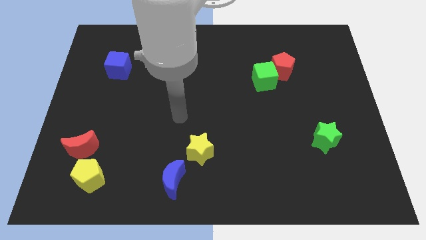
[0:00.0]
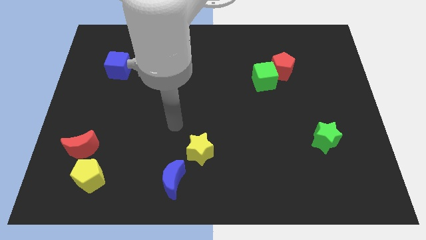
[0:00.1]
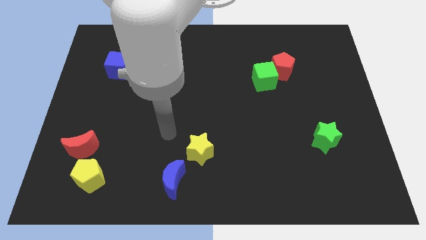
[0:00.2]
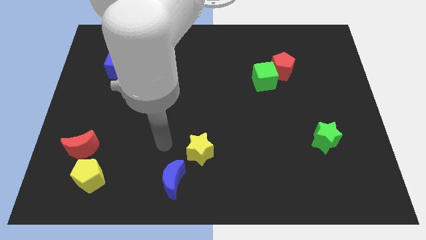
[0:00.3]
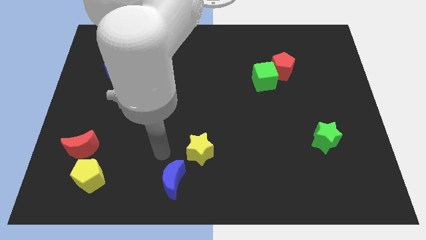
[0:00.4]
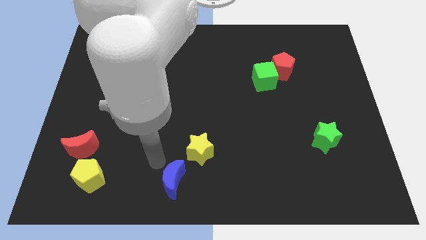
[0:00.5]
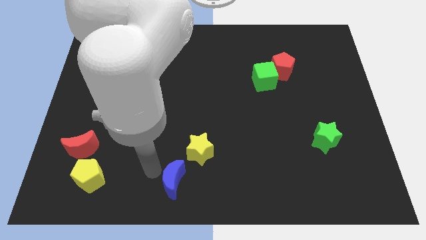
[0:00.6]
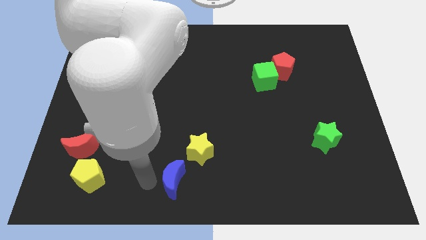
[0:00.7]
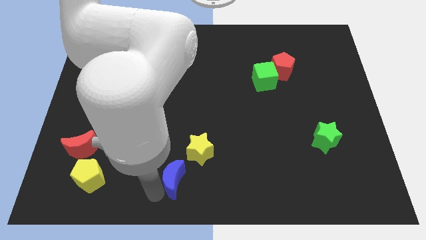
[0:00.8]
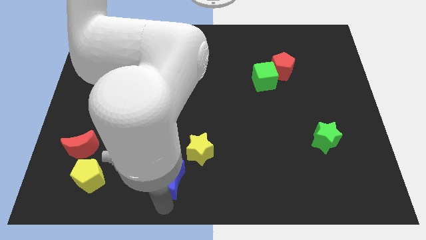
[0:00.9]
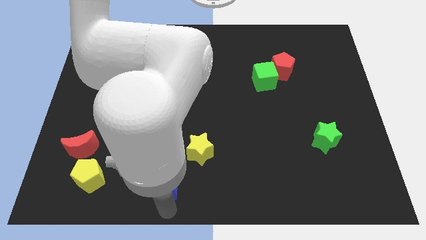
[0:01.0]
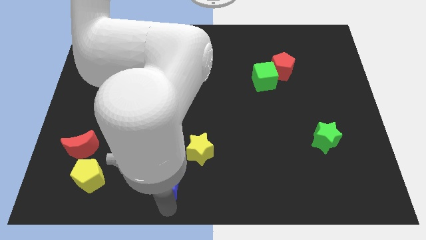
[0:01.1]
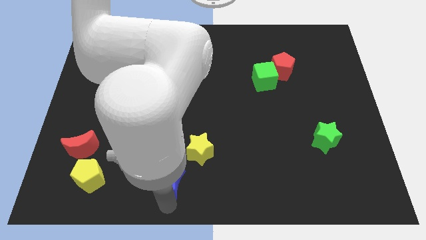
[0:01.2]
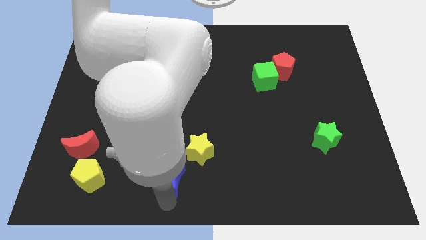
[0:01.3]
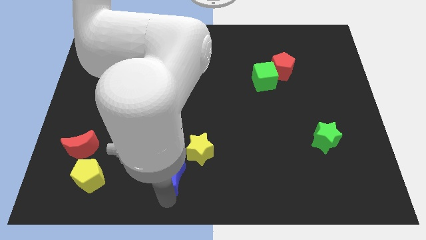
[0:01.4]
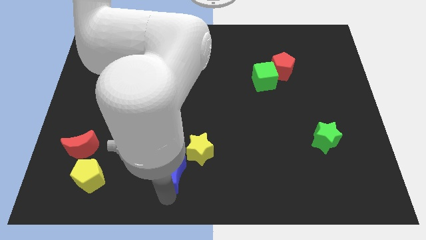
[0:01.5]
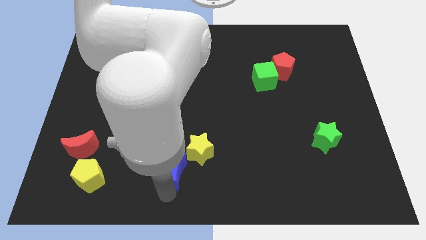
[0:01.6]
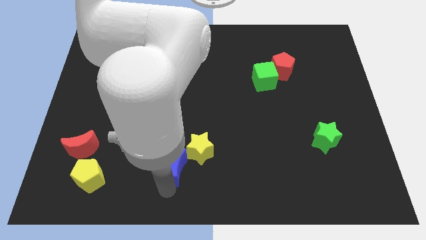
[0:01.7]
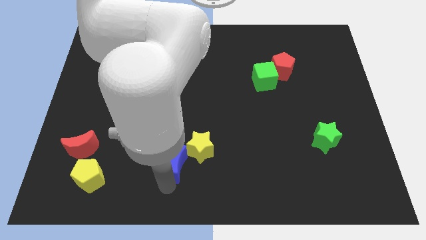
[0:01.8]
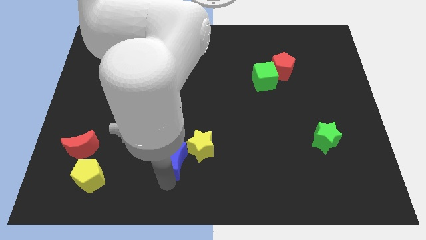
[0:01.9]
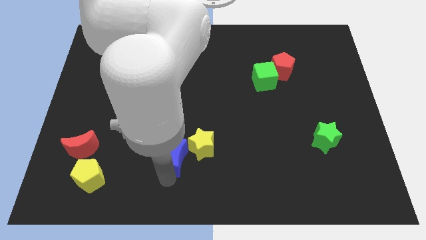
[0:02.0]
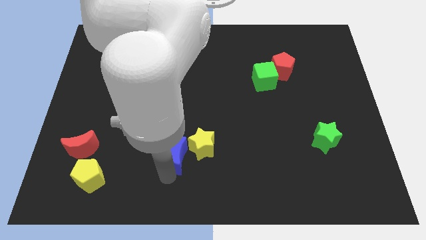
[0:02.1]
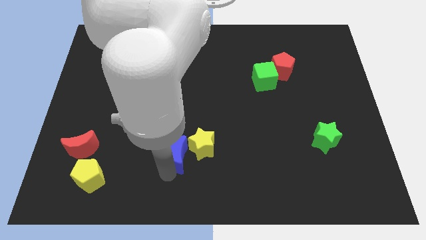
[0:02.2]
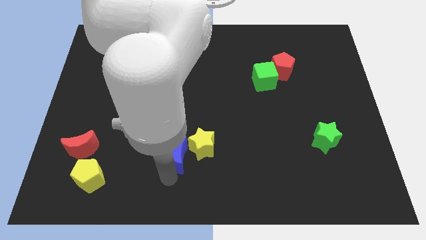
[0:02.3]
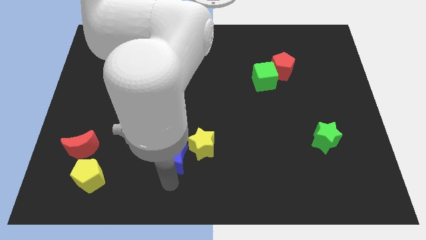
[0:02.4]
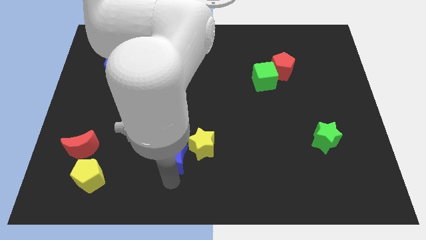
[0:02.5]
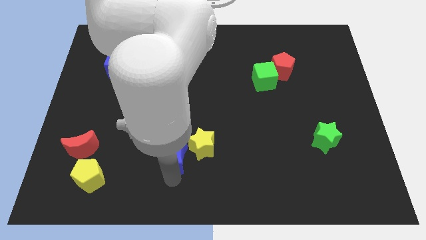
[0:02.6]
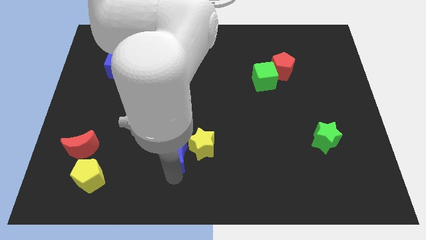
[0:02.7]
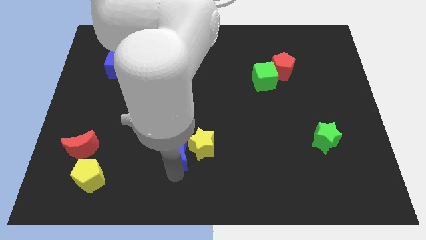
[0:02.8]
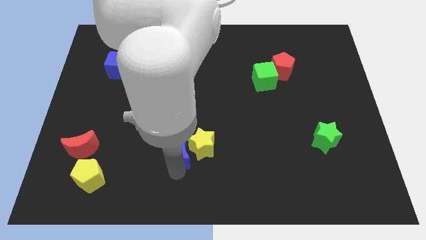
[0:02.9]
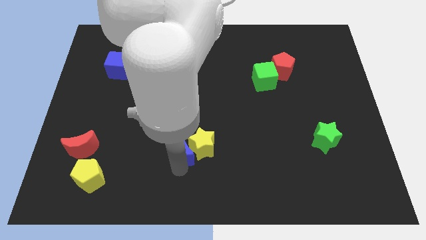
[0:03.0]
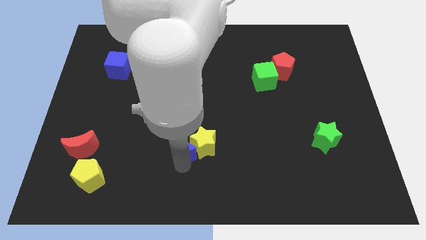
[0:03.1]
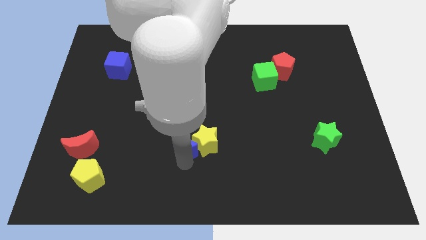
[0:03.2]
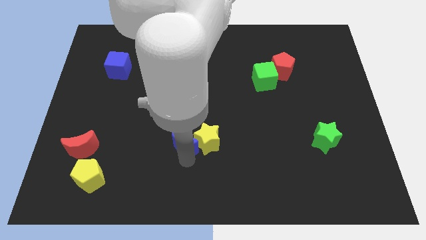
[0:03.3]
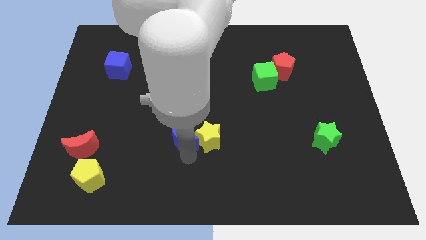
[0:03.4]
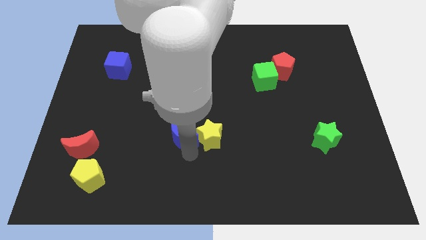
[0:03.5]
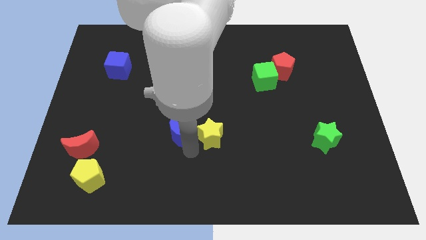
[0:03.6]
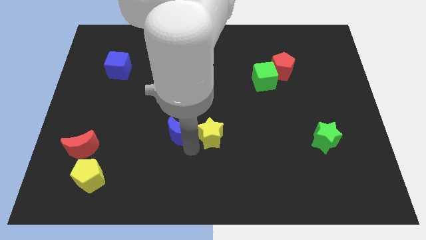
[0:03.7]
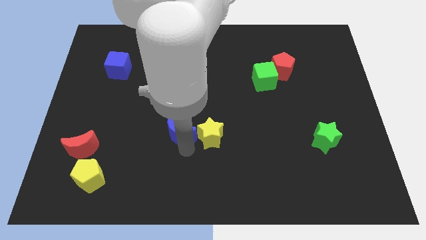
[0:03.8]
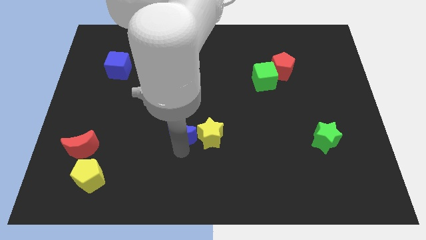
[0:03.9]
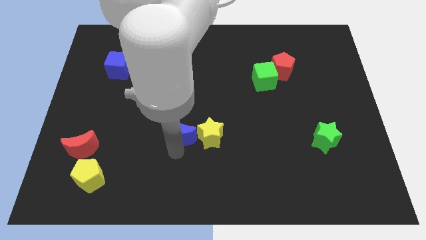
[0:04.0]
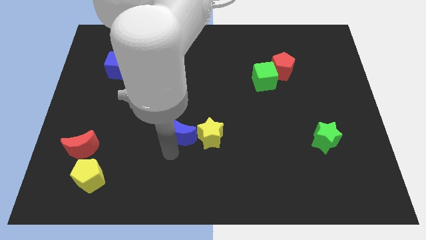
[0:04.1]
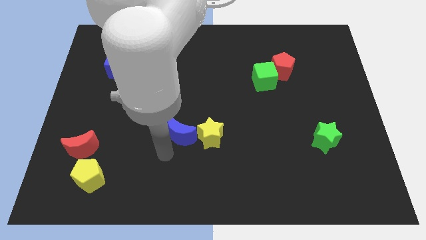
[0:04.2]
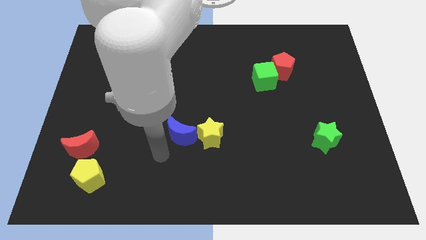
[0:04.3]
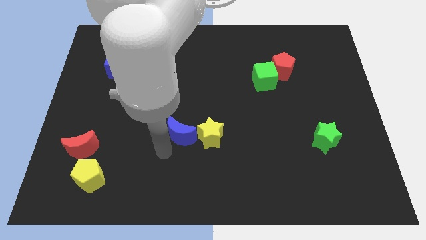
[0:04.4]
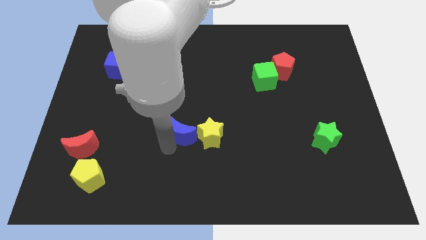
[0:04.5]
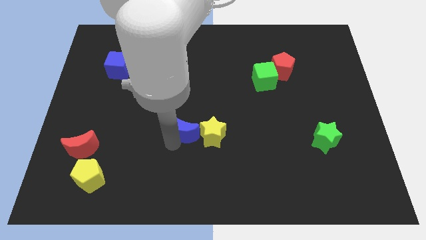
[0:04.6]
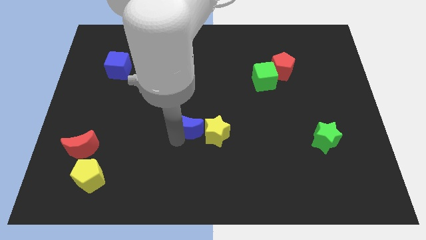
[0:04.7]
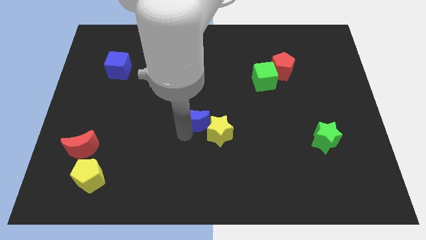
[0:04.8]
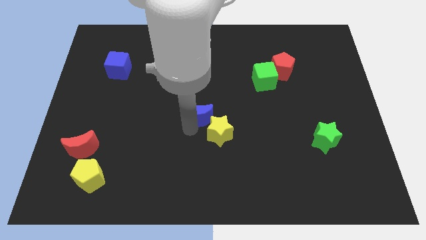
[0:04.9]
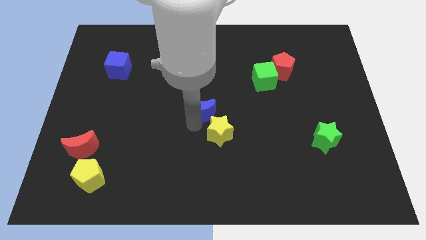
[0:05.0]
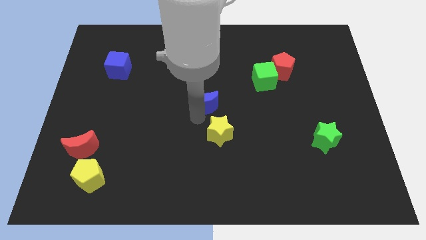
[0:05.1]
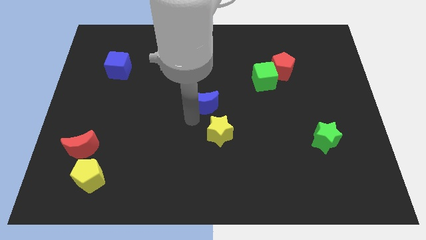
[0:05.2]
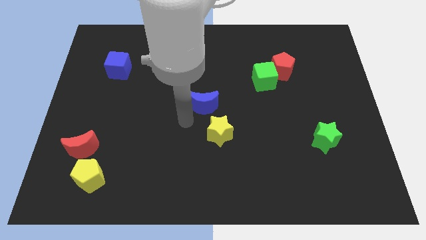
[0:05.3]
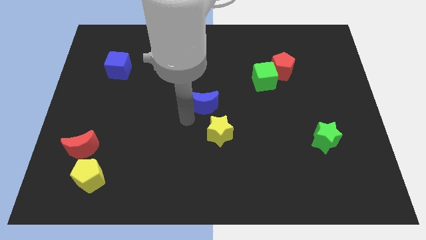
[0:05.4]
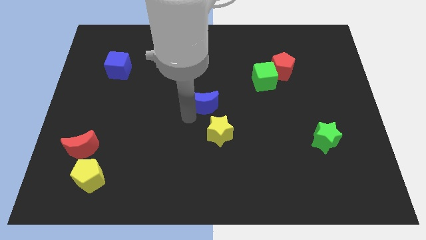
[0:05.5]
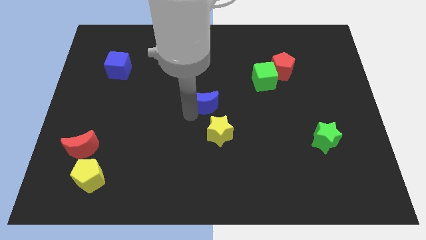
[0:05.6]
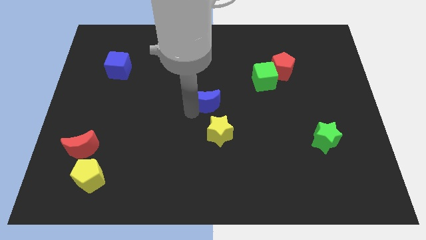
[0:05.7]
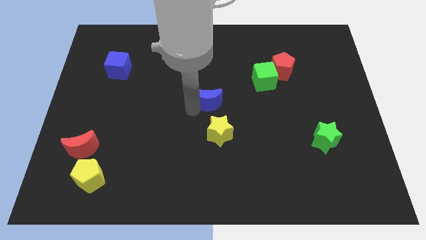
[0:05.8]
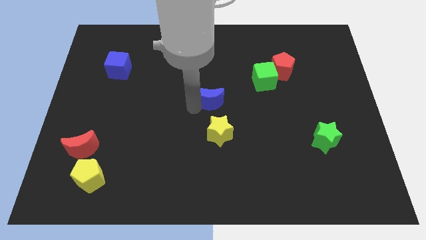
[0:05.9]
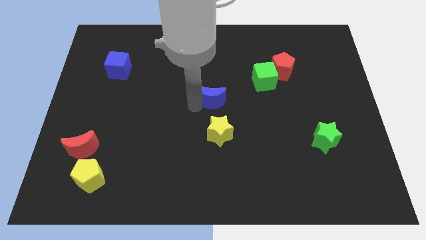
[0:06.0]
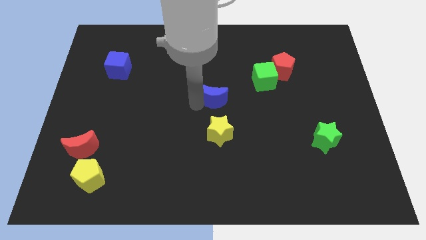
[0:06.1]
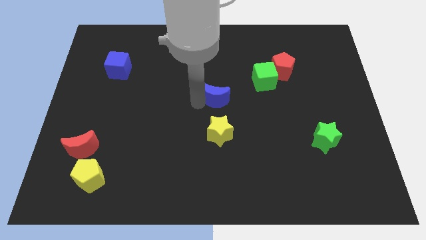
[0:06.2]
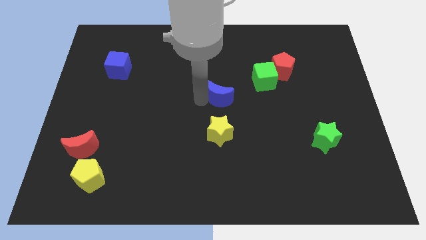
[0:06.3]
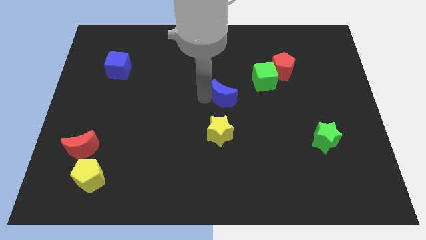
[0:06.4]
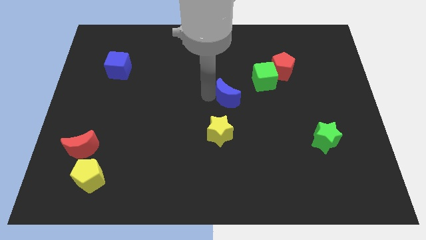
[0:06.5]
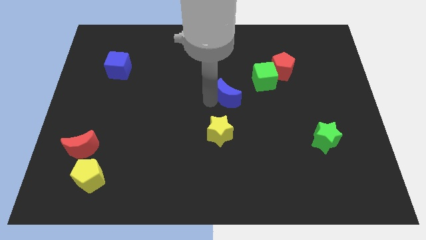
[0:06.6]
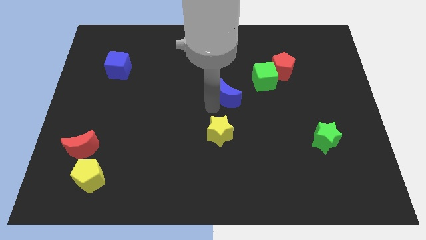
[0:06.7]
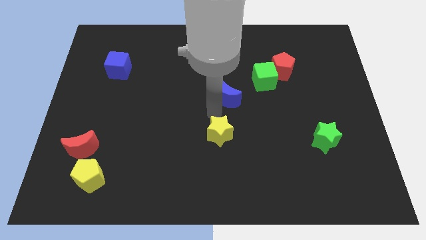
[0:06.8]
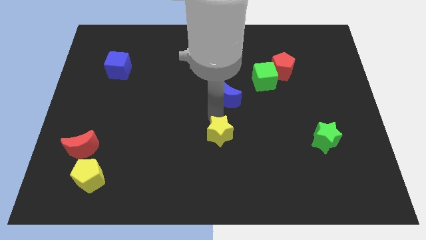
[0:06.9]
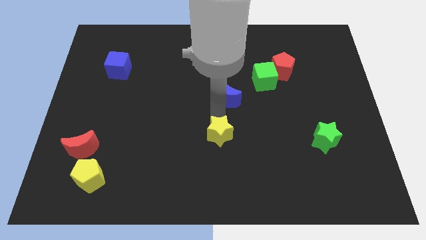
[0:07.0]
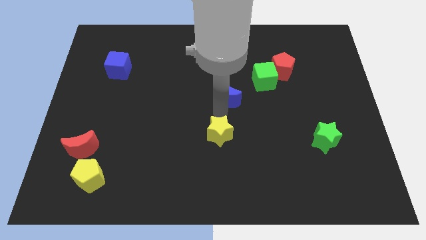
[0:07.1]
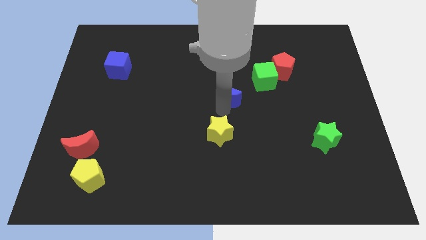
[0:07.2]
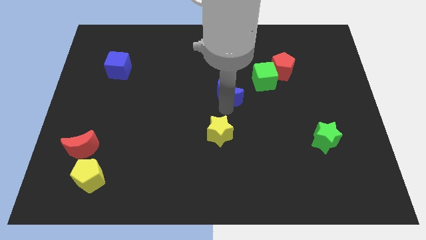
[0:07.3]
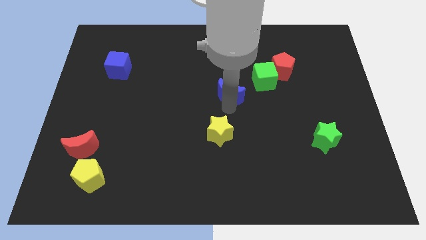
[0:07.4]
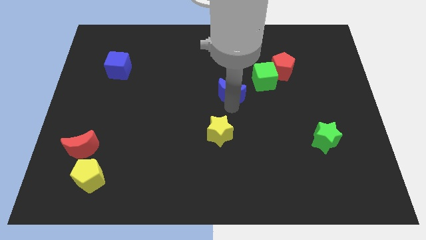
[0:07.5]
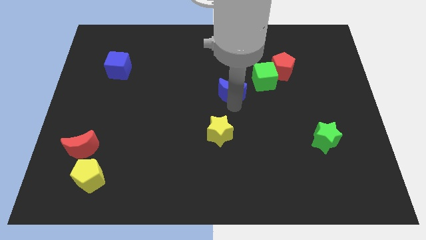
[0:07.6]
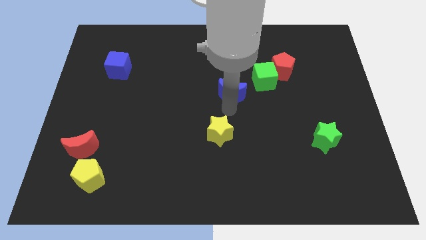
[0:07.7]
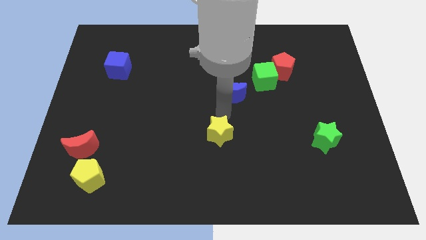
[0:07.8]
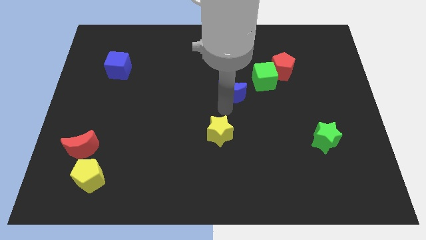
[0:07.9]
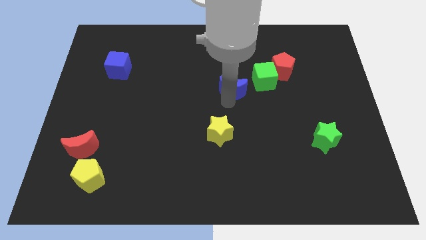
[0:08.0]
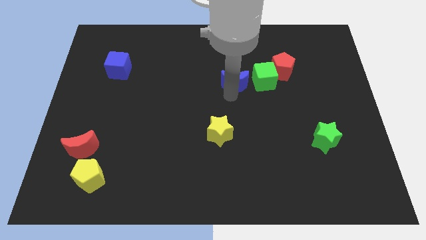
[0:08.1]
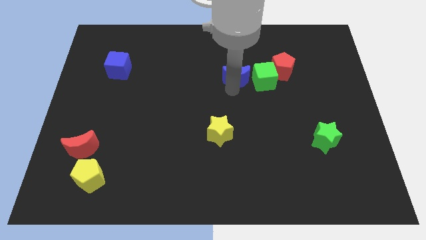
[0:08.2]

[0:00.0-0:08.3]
slide the blue moon just left of the red pentagon
